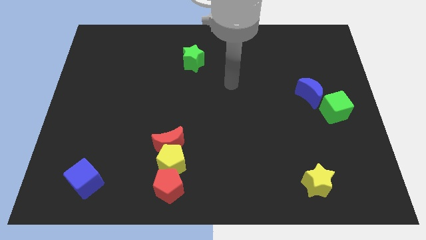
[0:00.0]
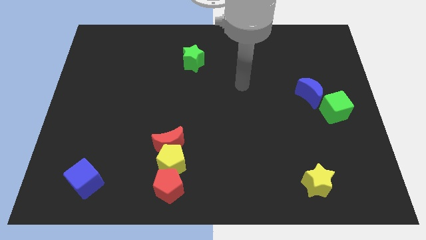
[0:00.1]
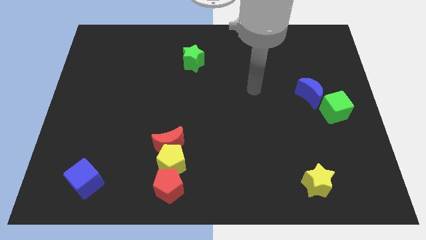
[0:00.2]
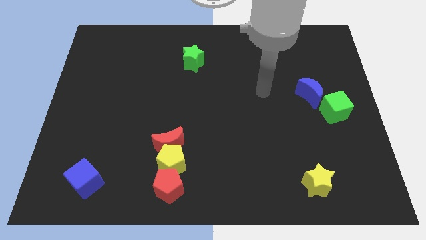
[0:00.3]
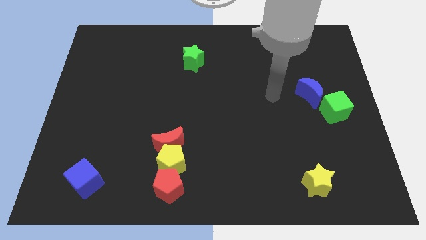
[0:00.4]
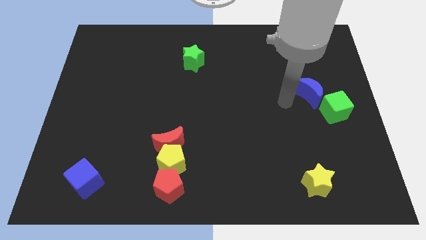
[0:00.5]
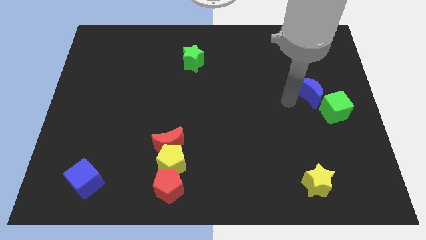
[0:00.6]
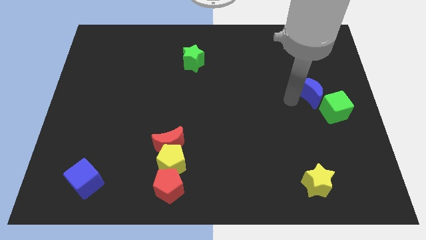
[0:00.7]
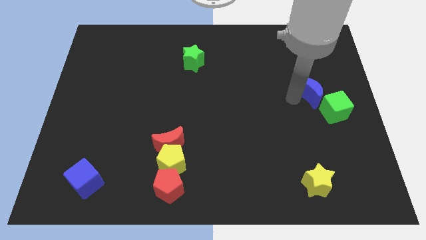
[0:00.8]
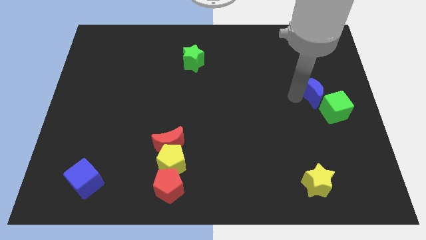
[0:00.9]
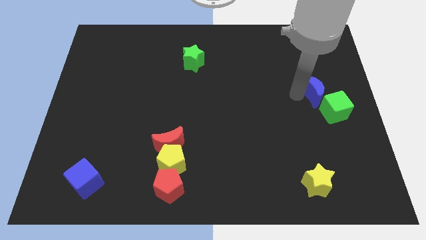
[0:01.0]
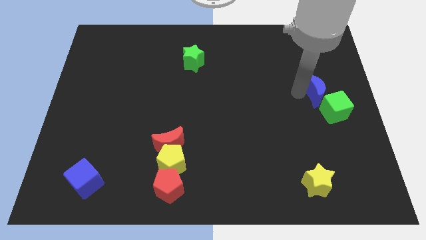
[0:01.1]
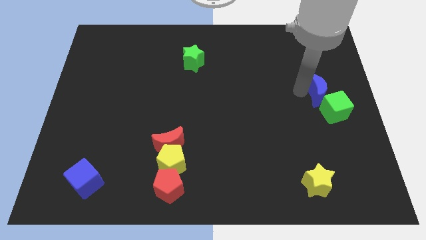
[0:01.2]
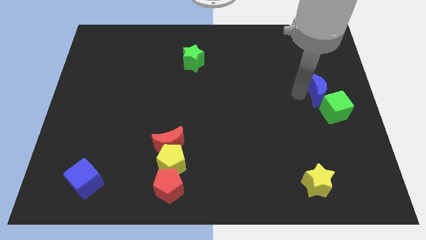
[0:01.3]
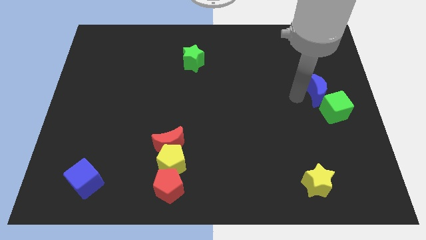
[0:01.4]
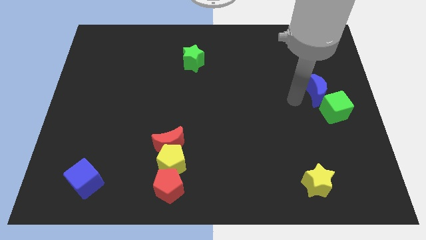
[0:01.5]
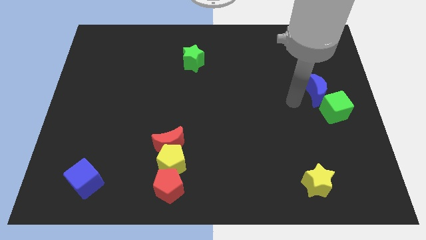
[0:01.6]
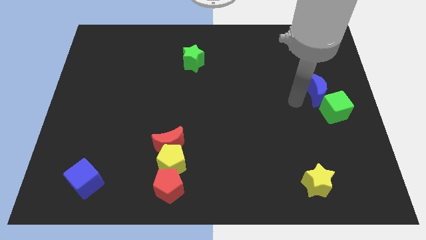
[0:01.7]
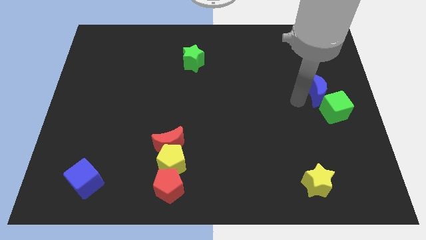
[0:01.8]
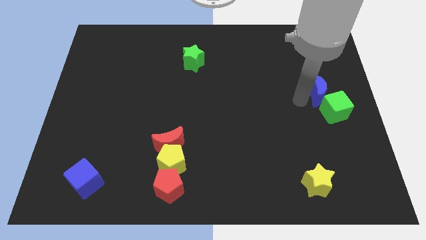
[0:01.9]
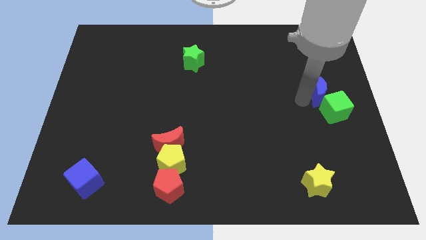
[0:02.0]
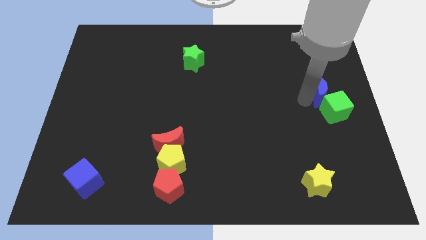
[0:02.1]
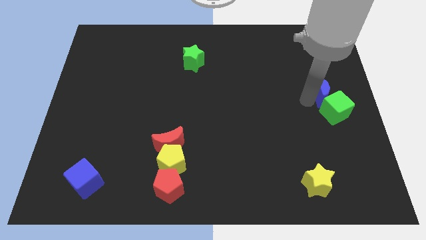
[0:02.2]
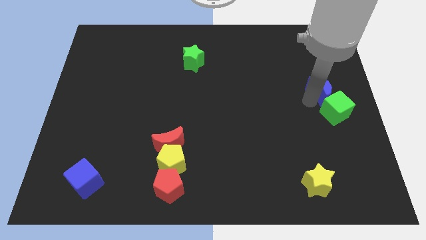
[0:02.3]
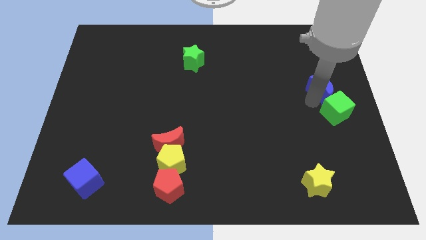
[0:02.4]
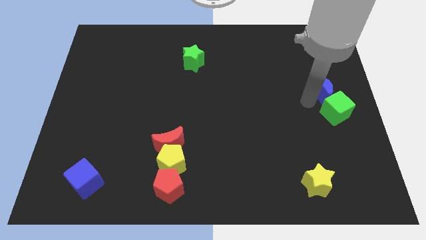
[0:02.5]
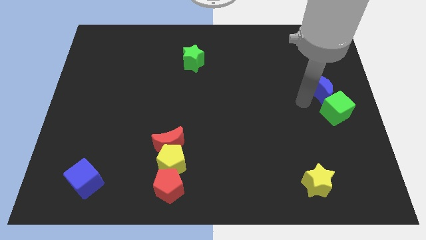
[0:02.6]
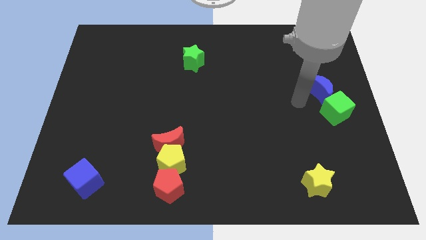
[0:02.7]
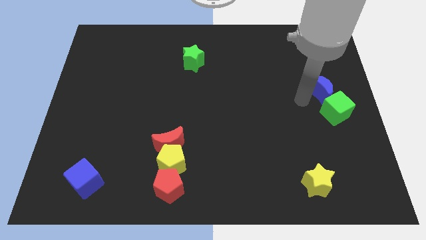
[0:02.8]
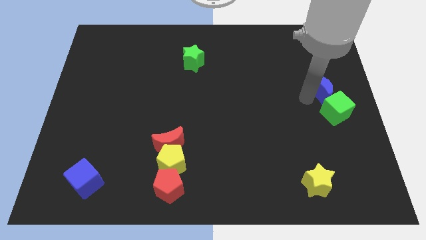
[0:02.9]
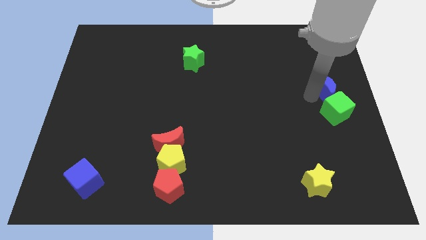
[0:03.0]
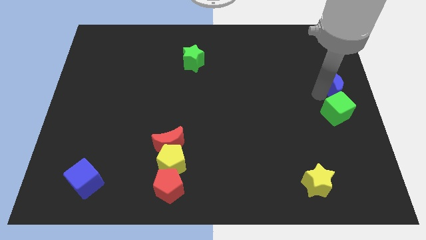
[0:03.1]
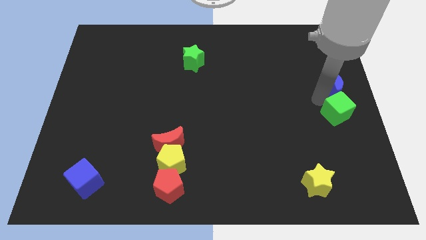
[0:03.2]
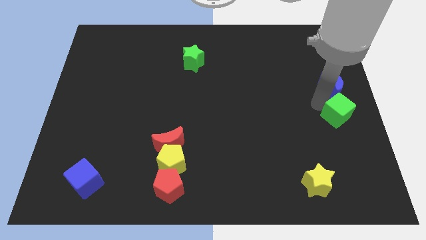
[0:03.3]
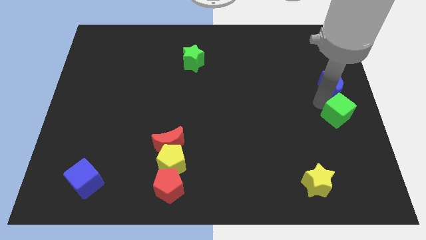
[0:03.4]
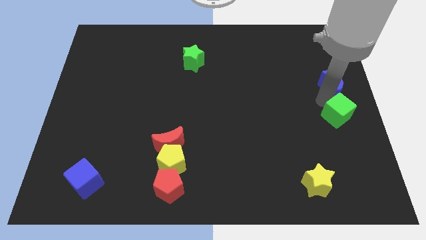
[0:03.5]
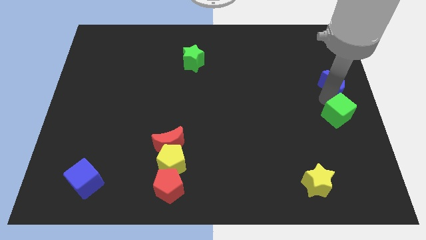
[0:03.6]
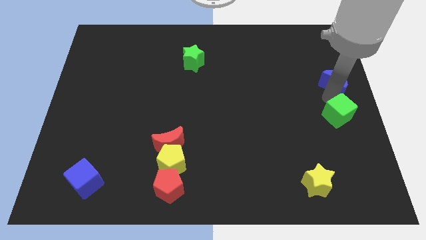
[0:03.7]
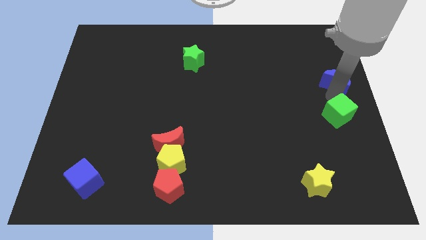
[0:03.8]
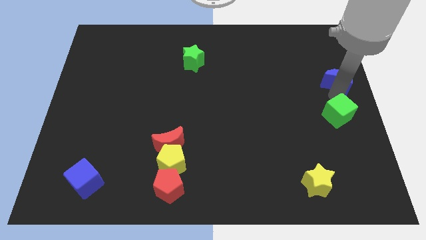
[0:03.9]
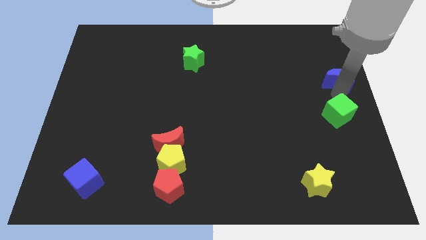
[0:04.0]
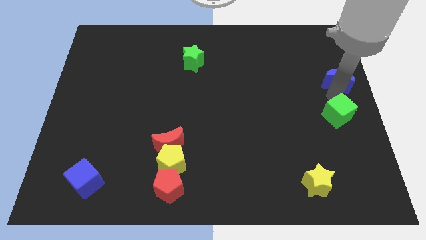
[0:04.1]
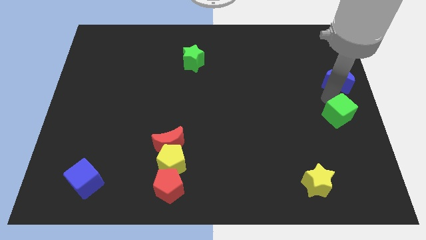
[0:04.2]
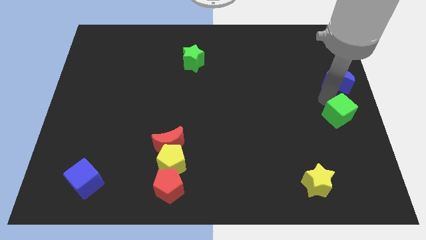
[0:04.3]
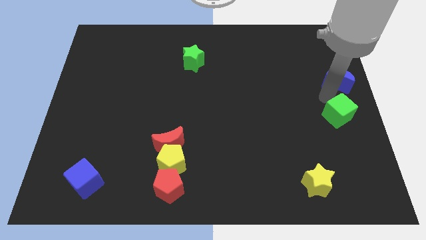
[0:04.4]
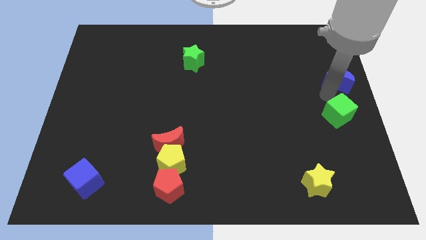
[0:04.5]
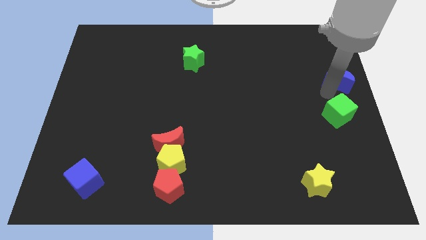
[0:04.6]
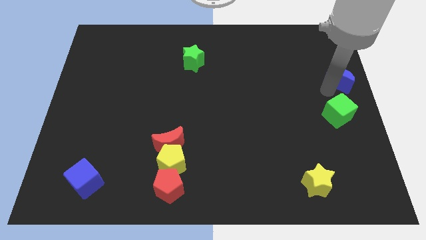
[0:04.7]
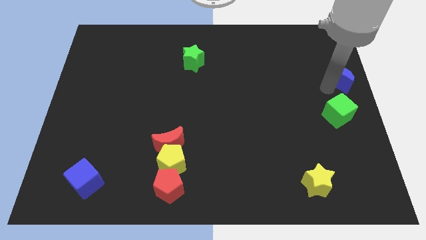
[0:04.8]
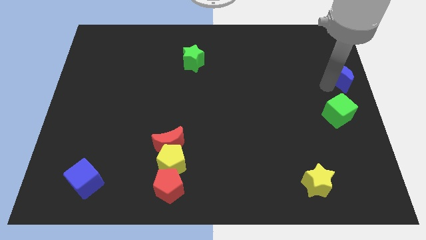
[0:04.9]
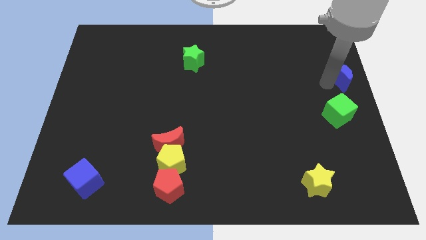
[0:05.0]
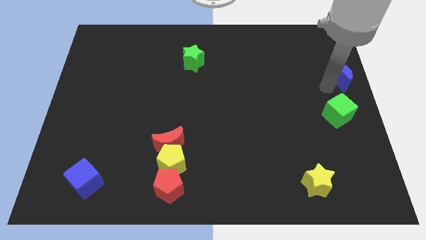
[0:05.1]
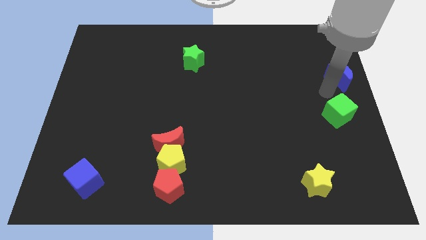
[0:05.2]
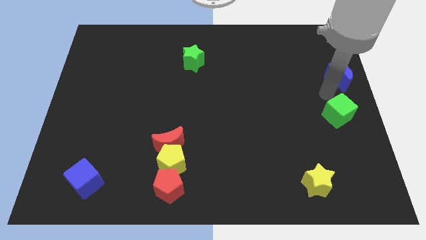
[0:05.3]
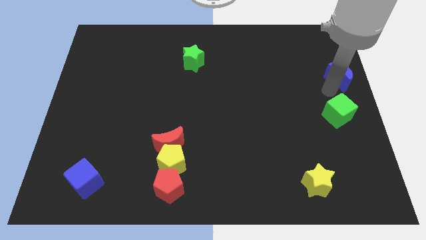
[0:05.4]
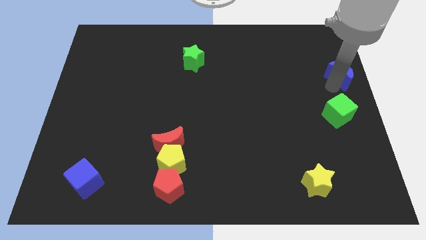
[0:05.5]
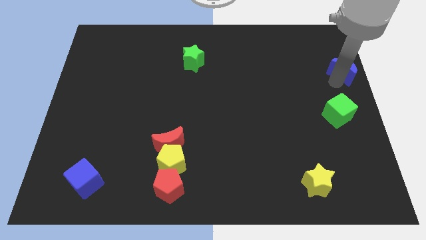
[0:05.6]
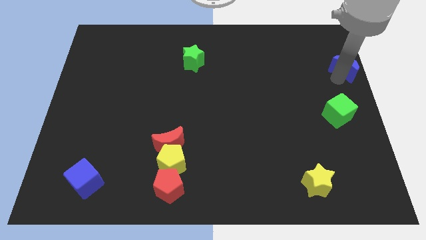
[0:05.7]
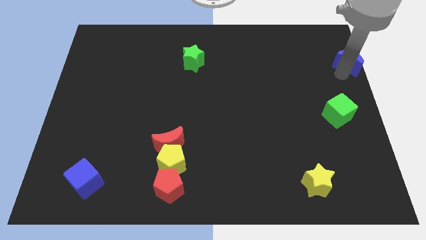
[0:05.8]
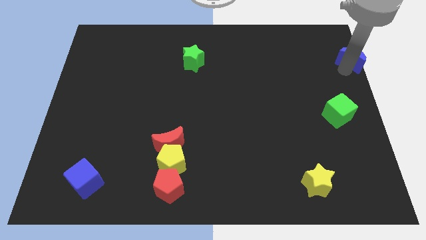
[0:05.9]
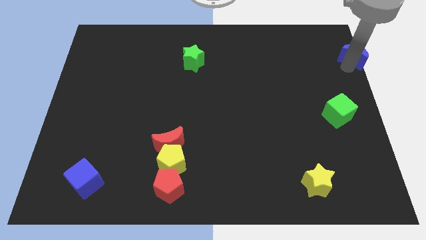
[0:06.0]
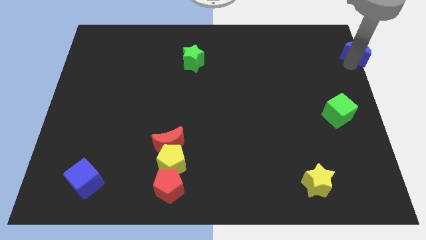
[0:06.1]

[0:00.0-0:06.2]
put the blue moon to the top right corner

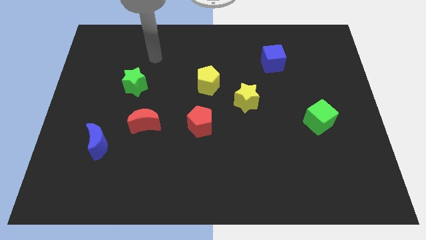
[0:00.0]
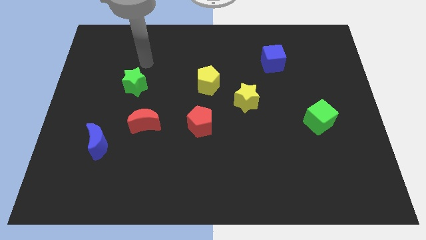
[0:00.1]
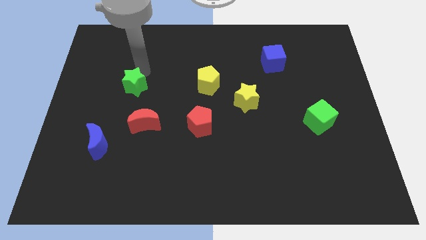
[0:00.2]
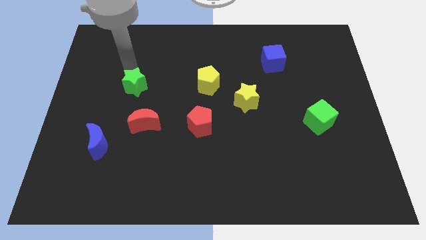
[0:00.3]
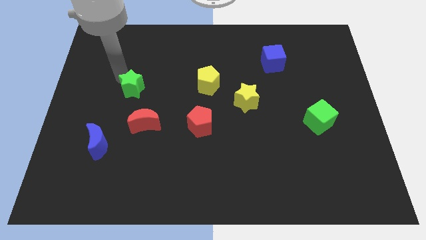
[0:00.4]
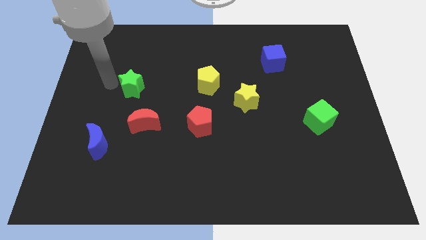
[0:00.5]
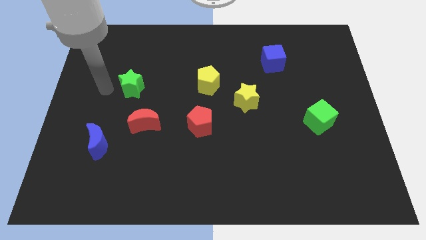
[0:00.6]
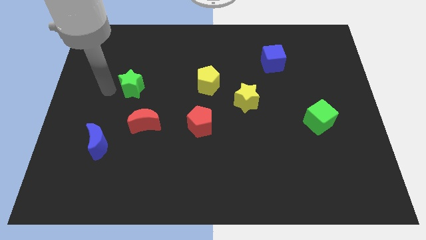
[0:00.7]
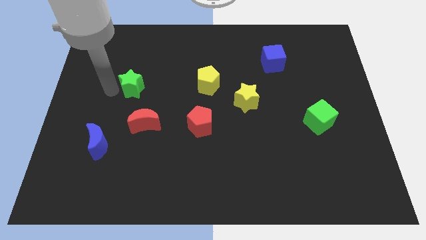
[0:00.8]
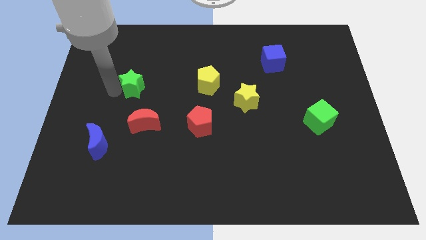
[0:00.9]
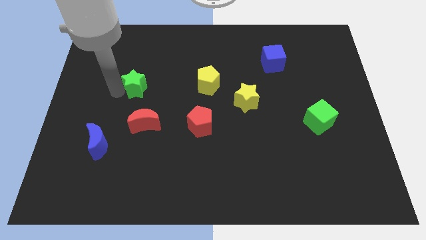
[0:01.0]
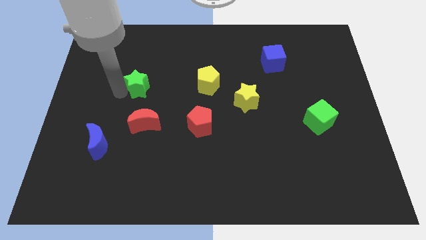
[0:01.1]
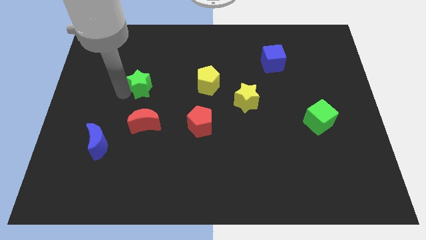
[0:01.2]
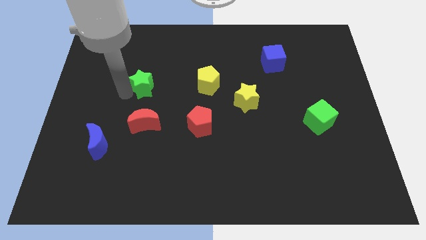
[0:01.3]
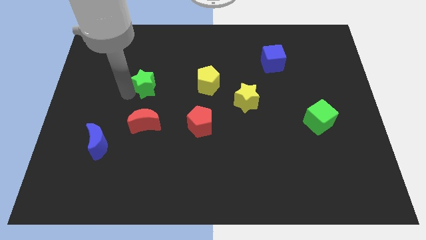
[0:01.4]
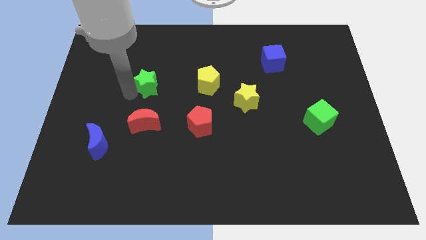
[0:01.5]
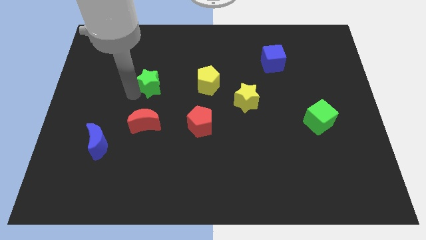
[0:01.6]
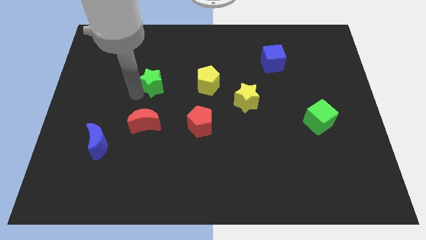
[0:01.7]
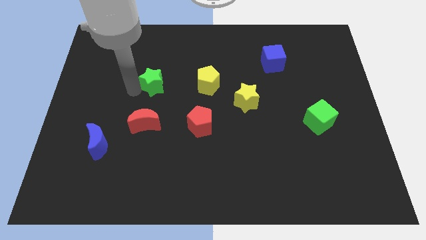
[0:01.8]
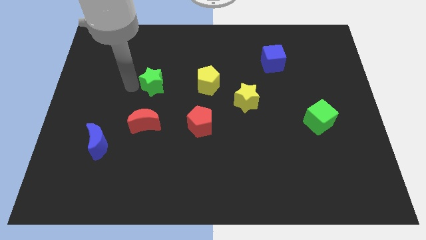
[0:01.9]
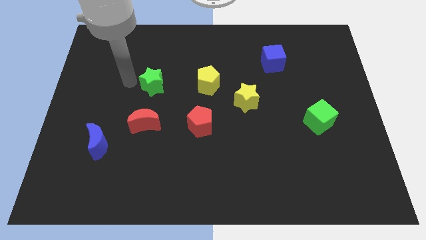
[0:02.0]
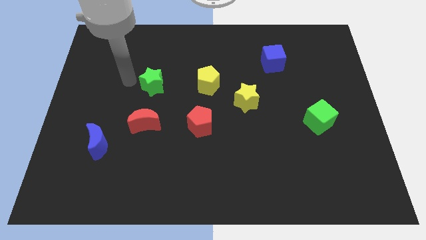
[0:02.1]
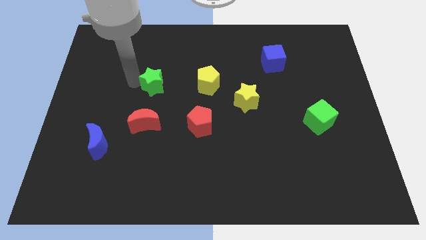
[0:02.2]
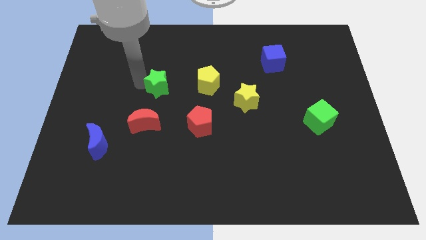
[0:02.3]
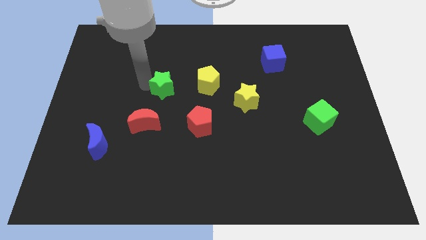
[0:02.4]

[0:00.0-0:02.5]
push the green star to the center of the board
